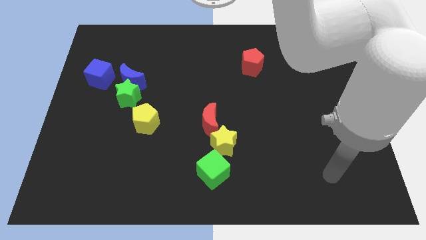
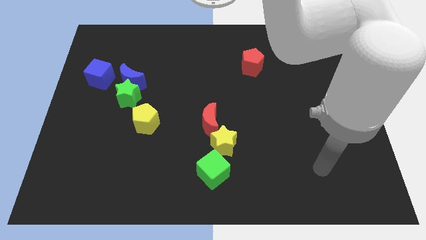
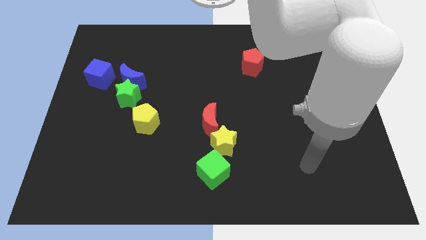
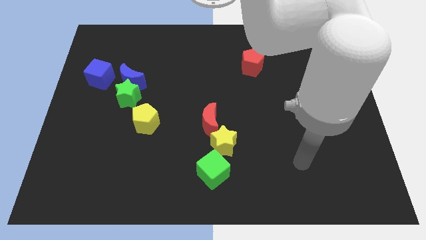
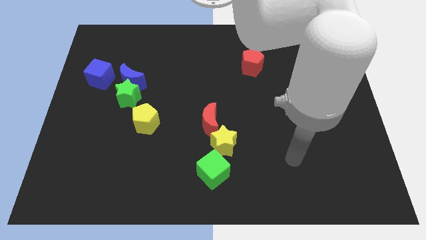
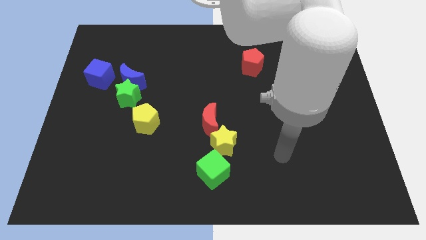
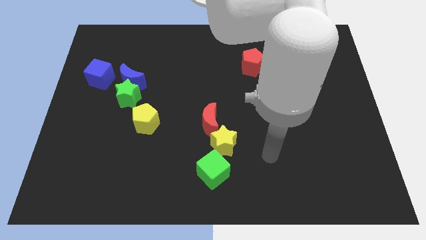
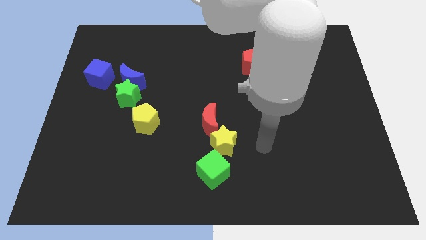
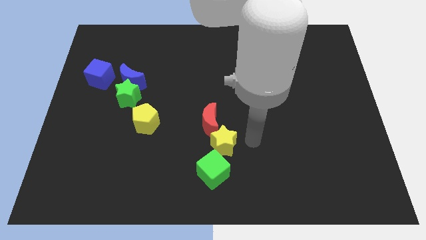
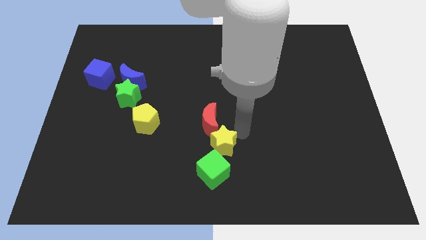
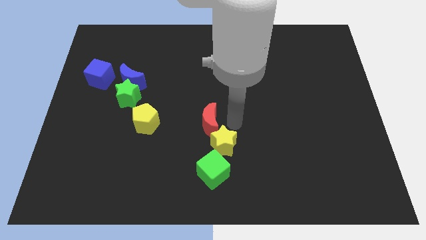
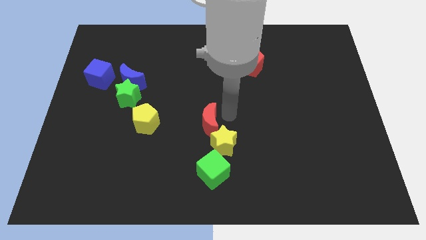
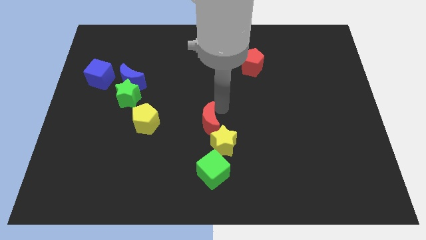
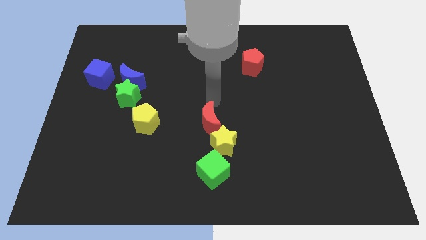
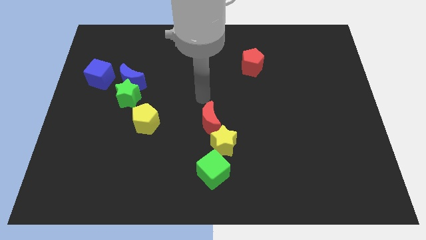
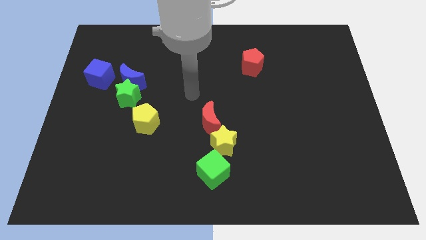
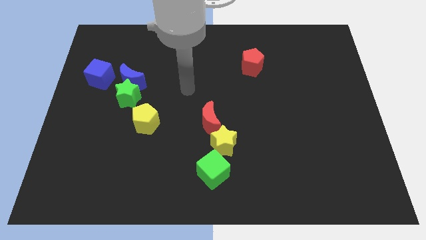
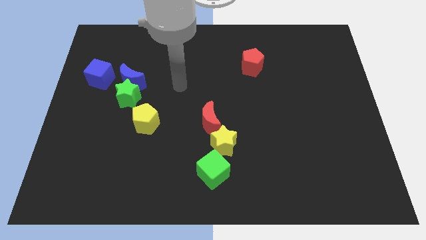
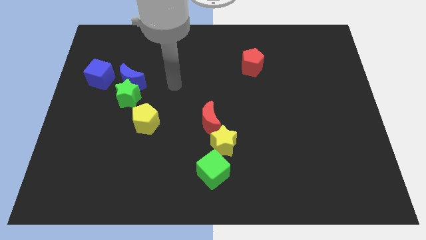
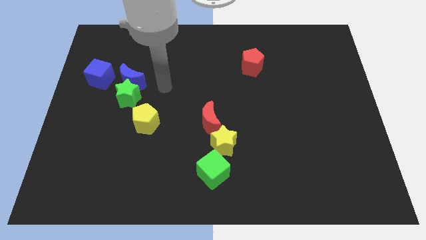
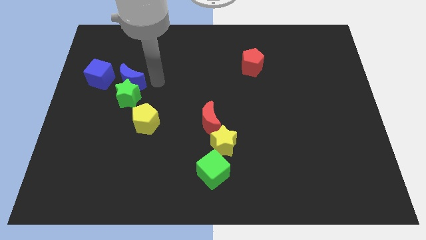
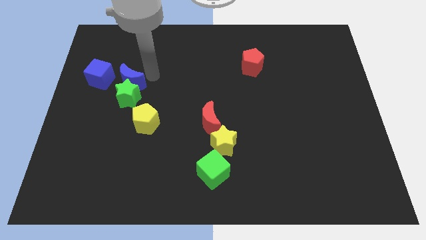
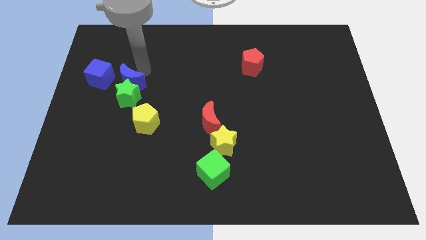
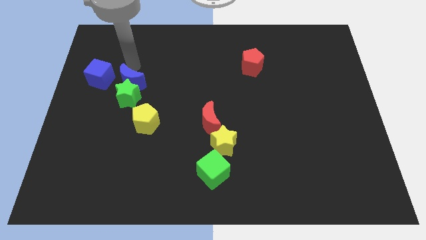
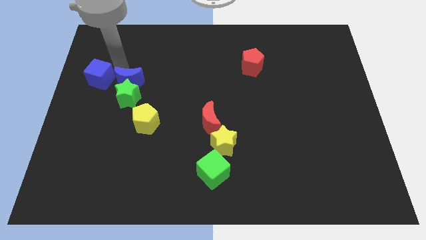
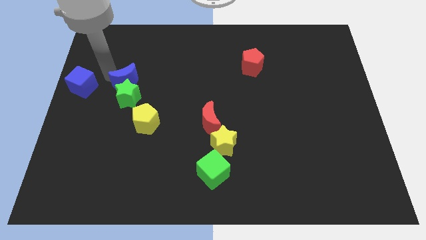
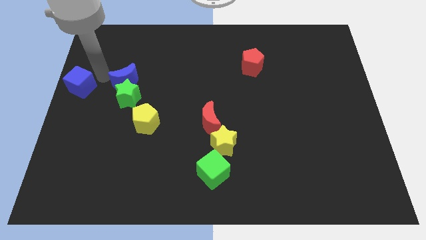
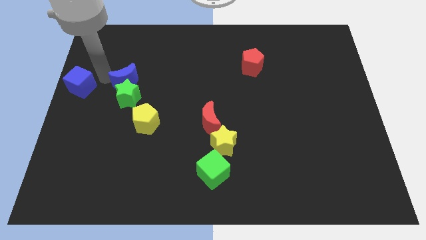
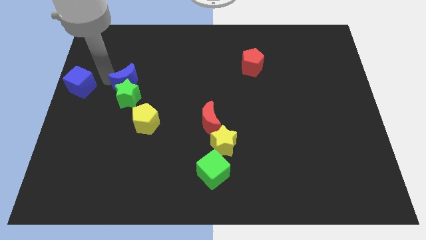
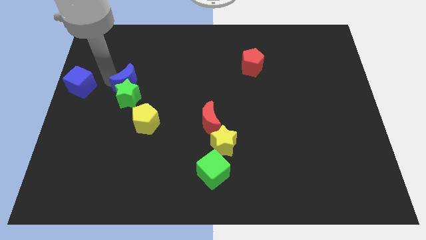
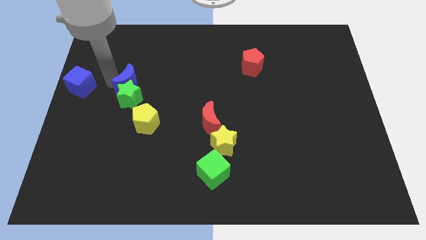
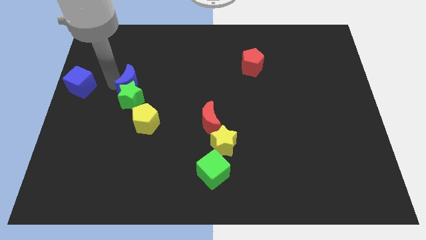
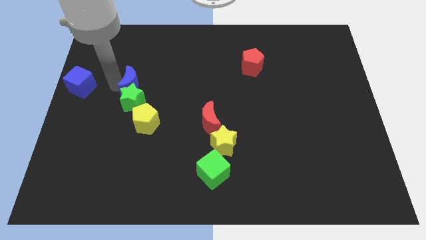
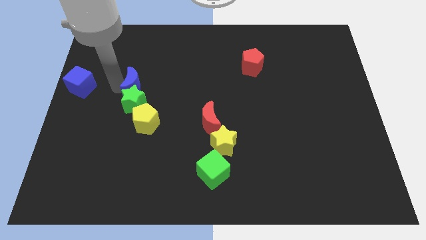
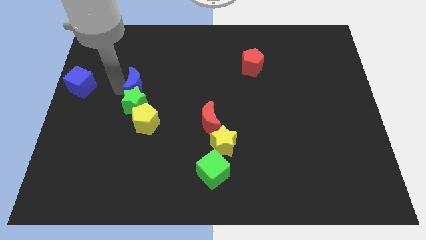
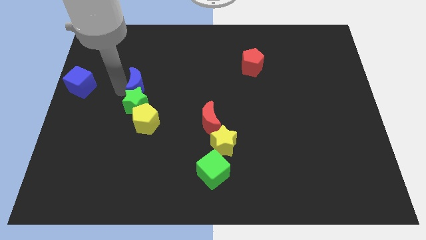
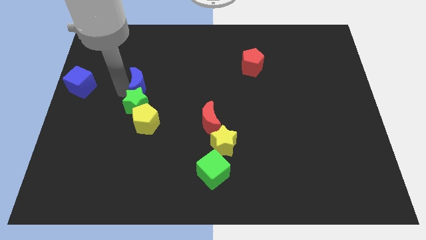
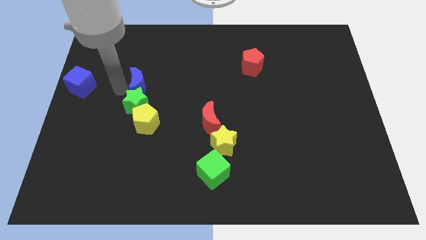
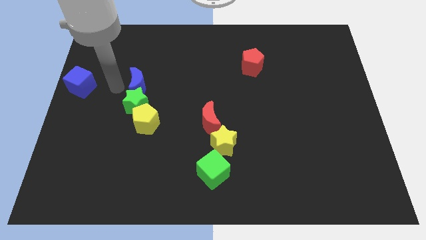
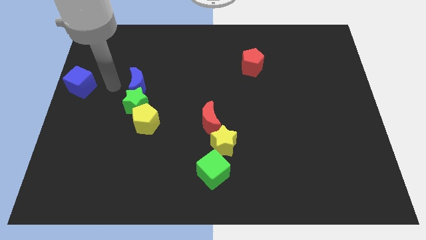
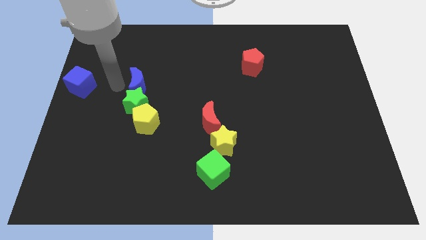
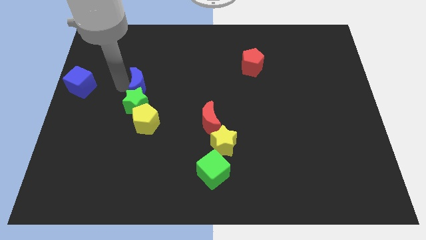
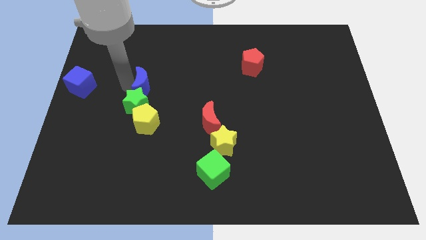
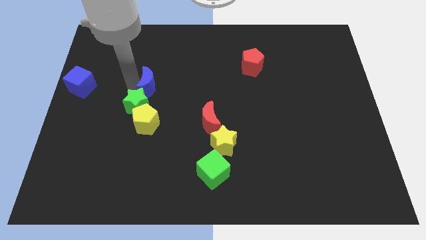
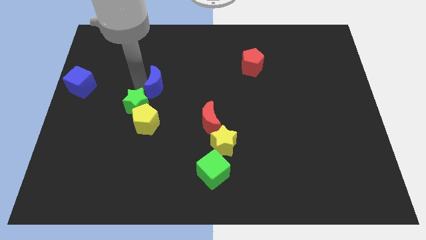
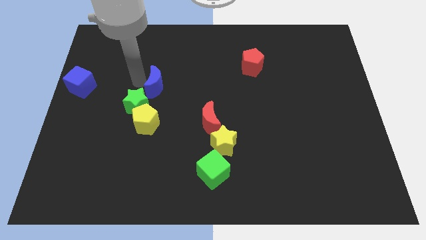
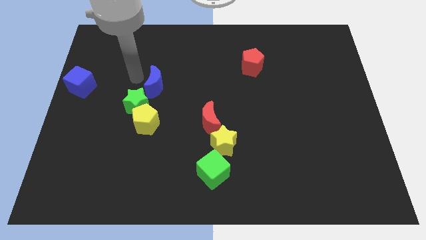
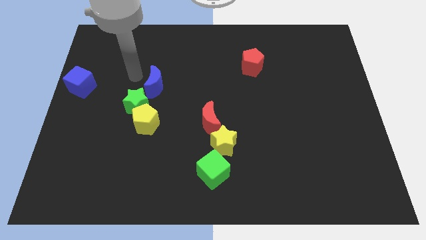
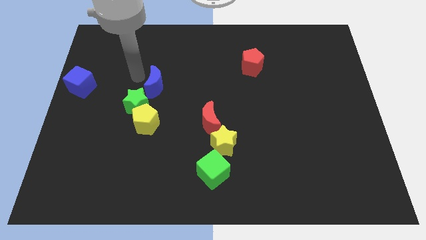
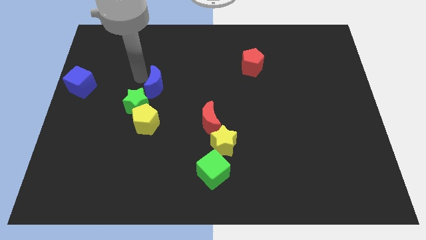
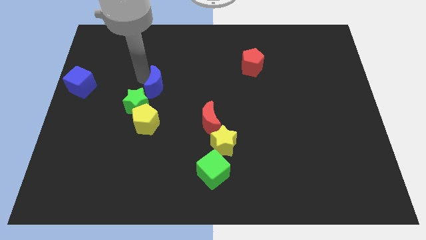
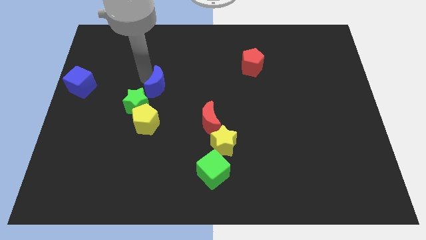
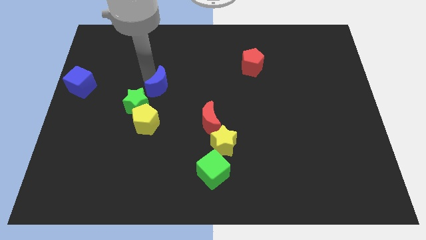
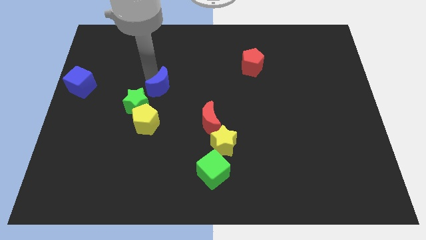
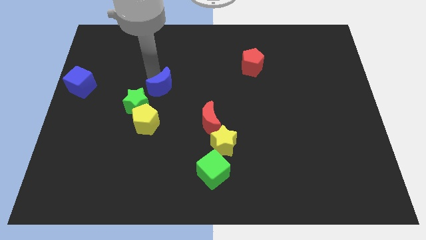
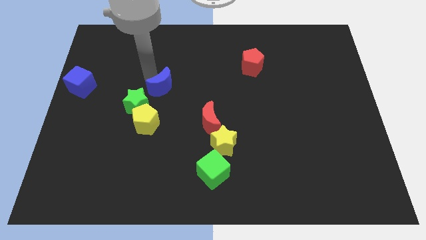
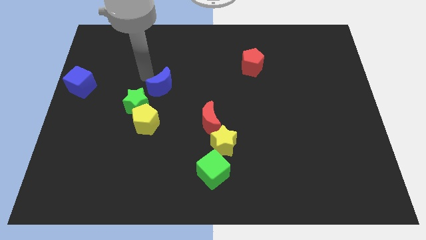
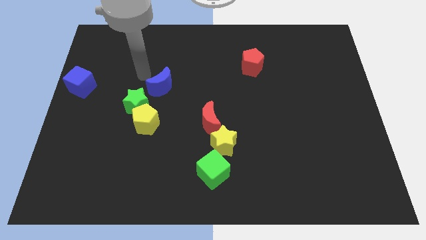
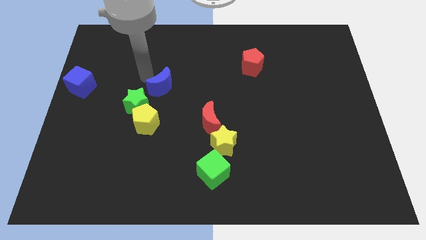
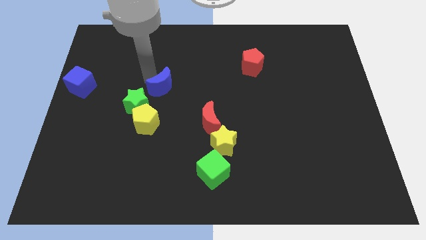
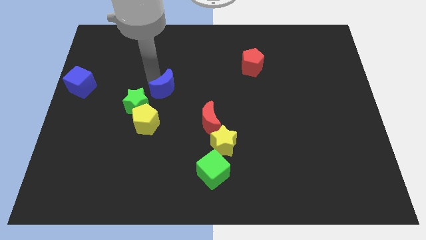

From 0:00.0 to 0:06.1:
put the blue moon to the center
